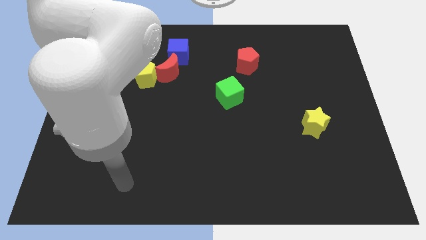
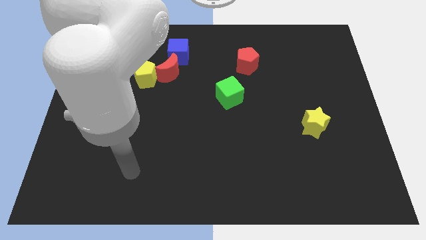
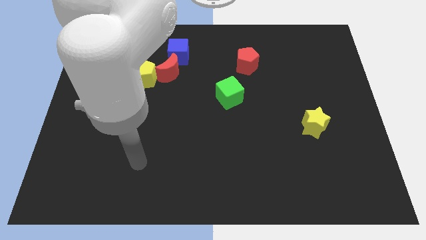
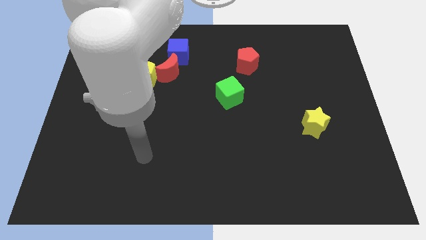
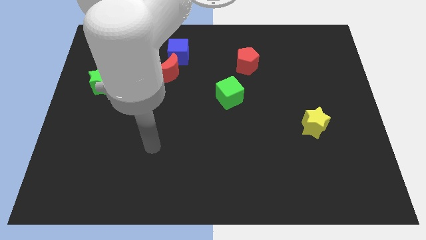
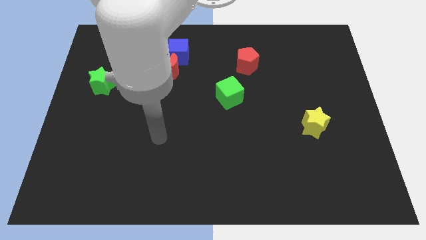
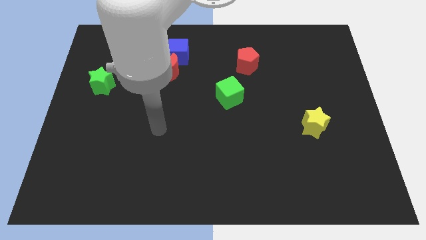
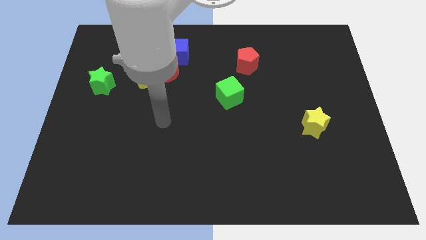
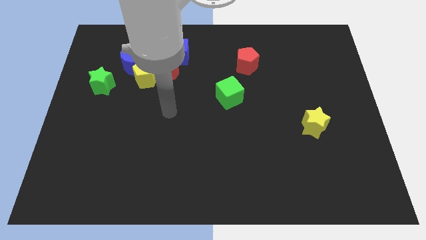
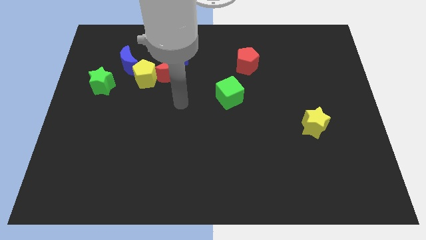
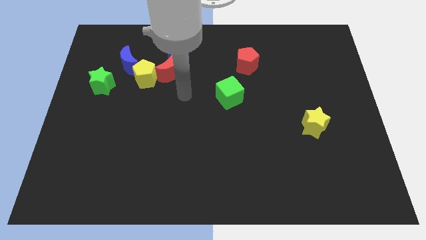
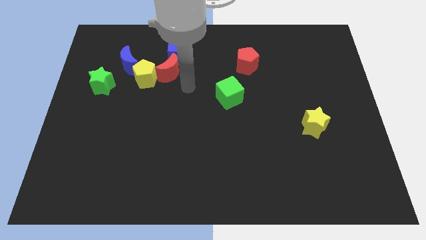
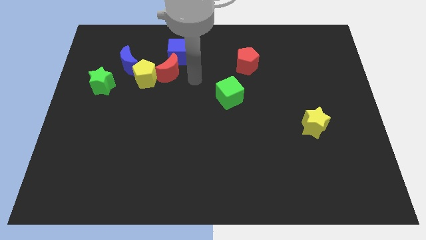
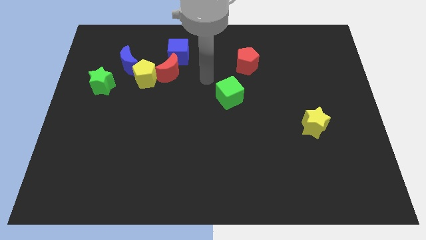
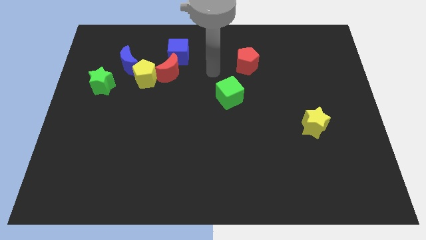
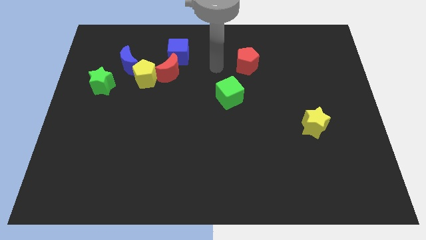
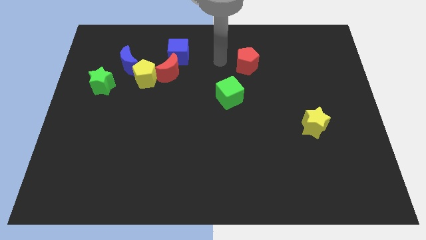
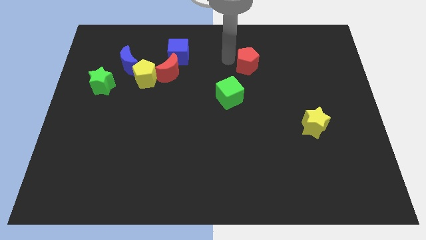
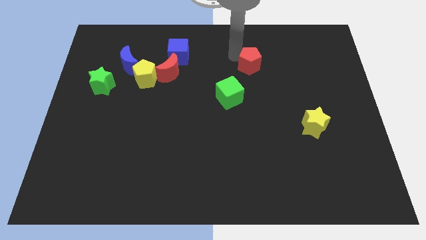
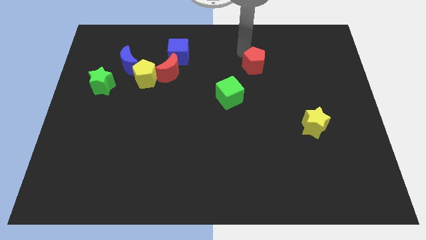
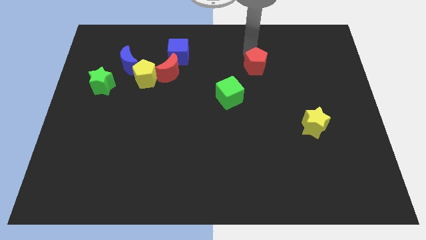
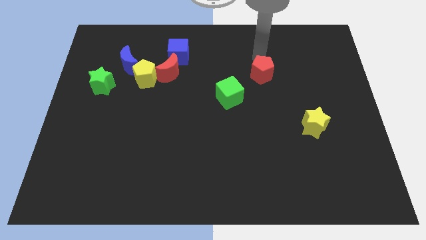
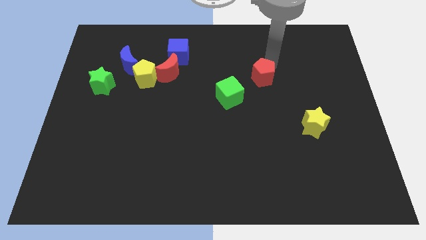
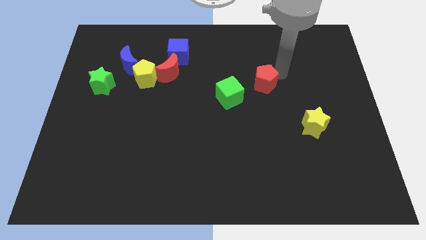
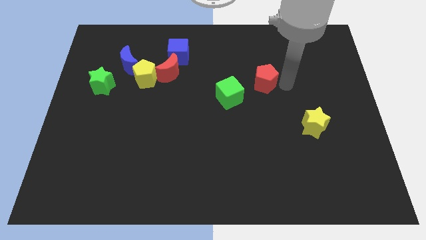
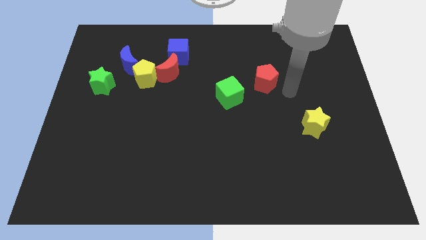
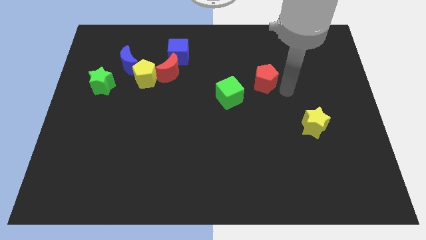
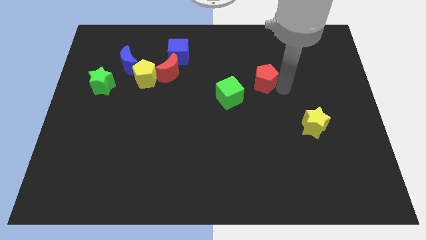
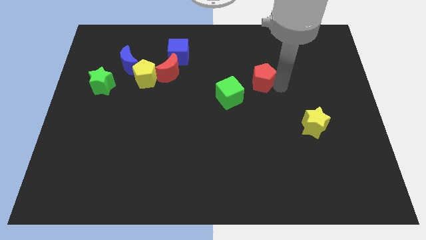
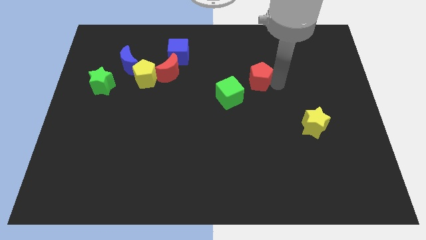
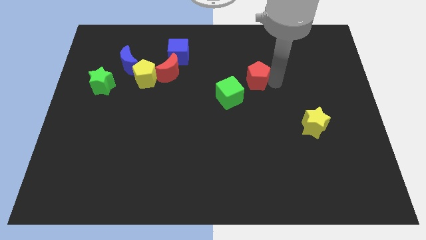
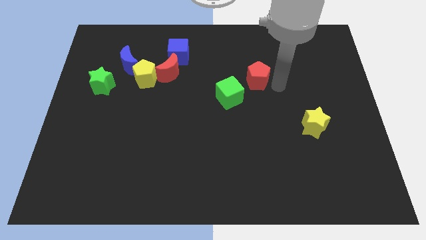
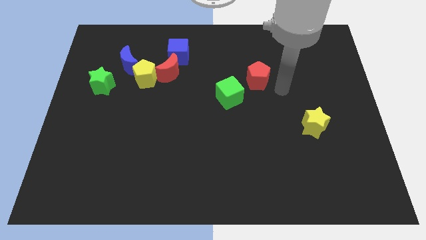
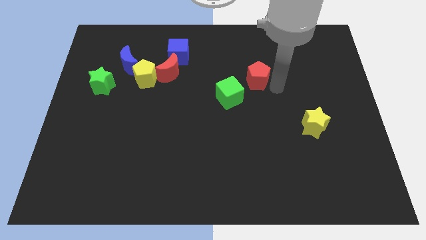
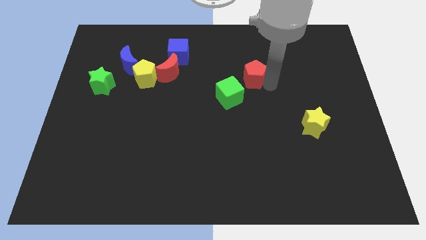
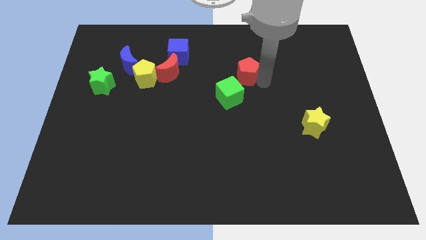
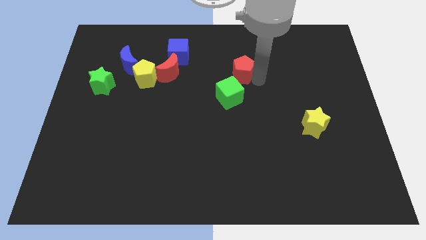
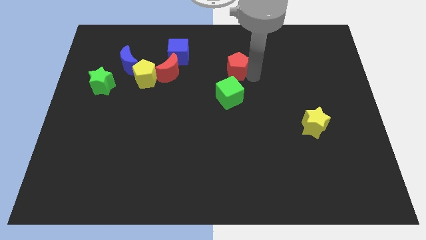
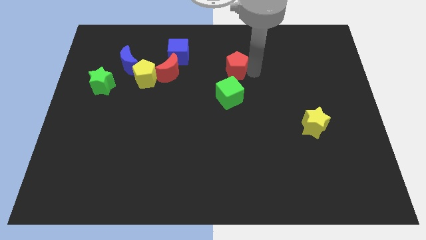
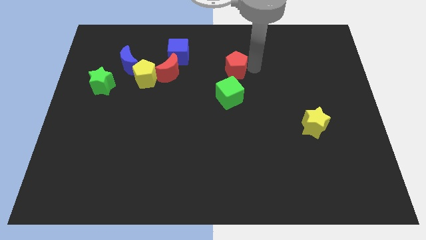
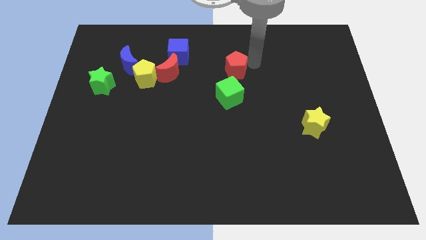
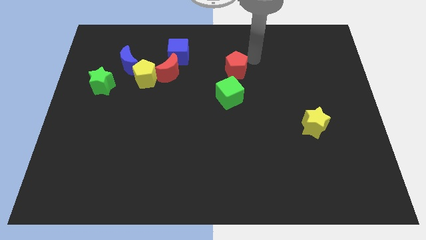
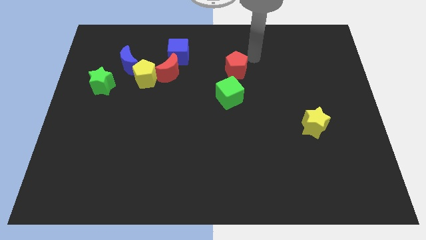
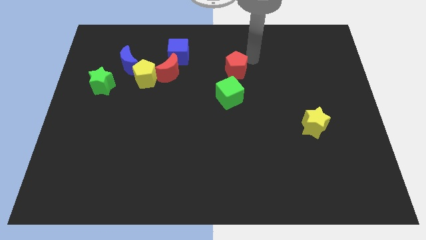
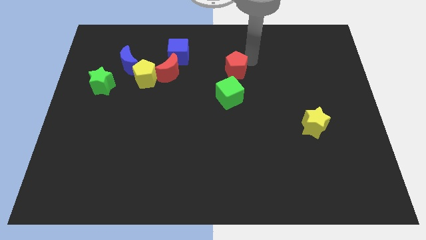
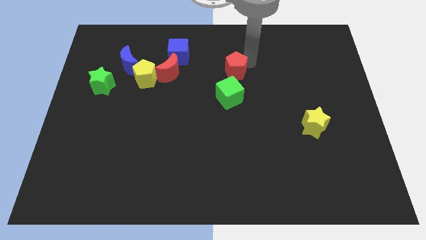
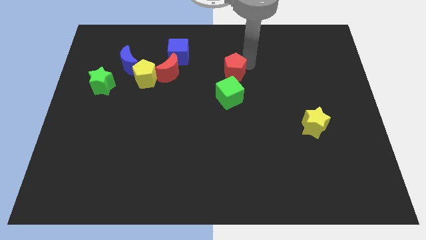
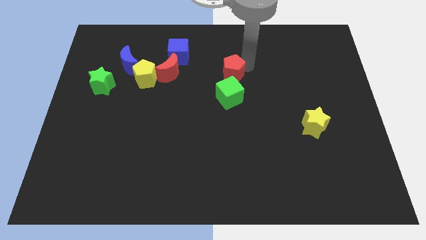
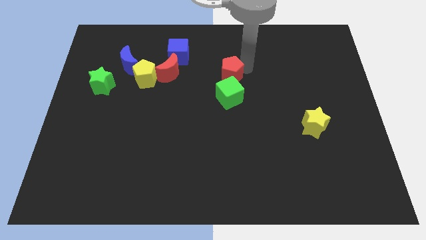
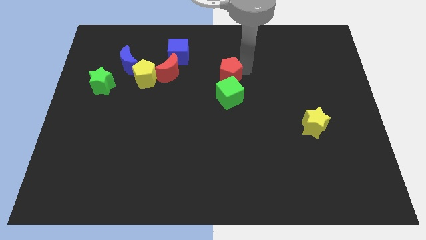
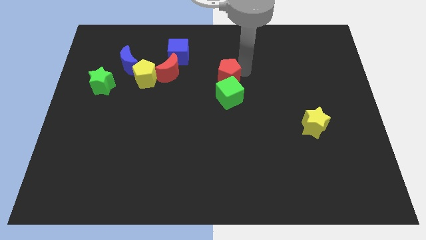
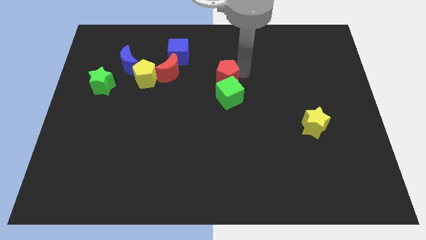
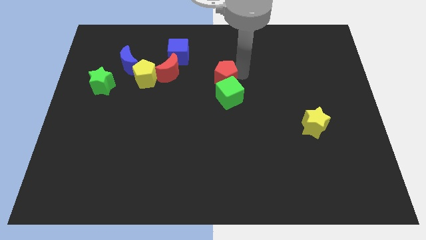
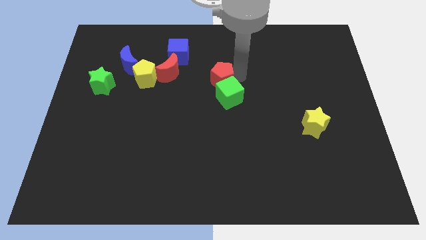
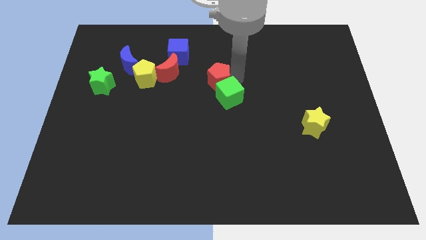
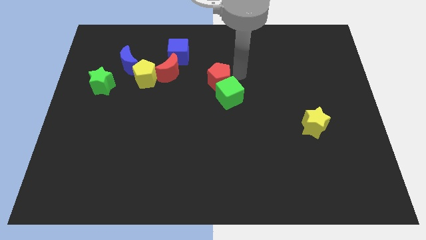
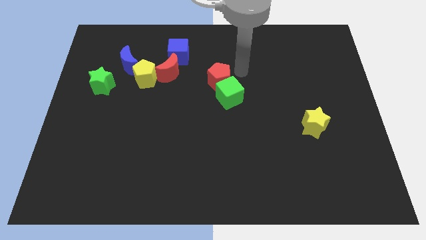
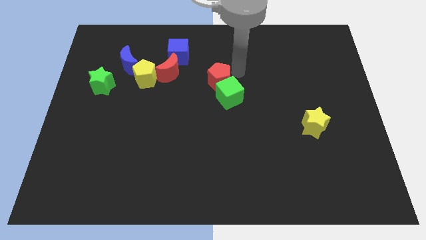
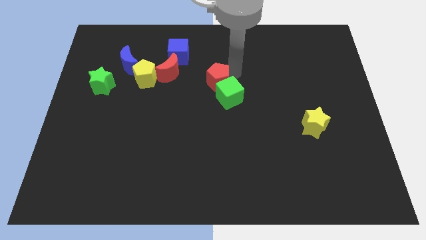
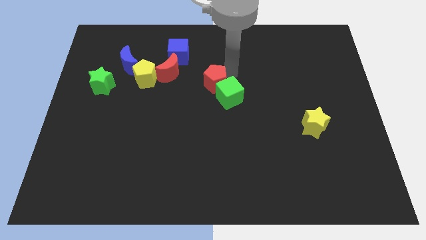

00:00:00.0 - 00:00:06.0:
push the red pentagon left of the green cube

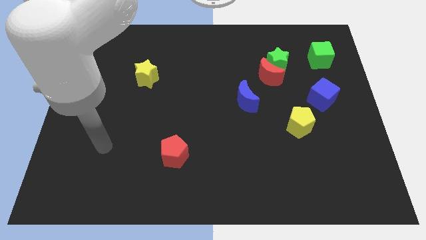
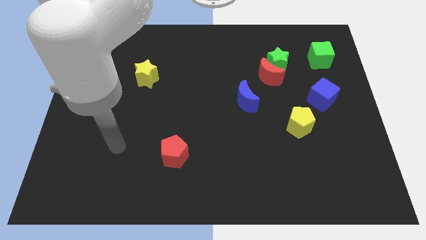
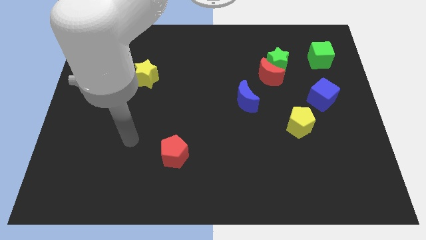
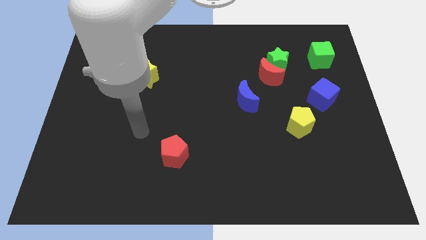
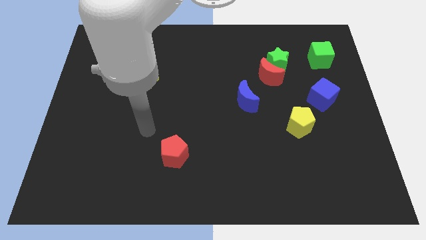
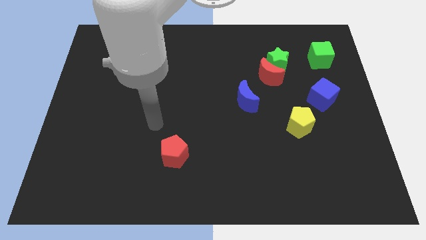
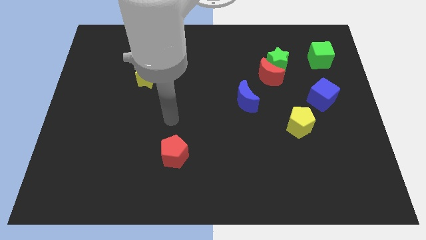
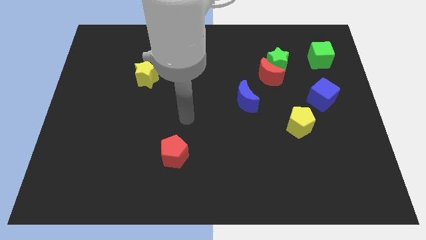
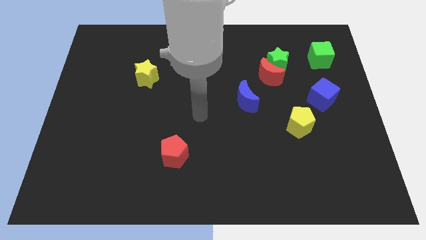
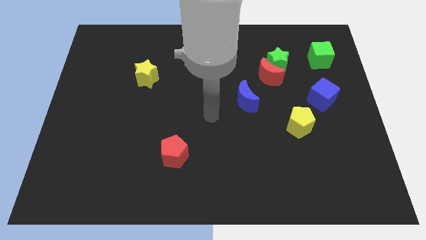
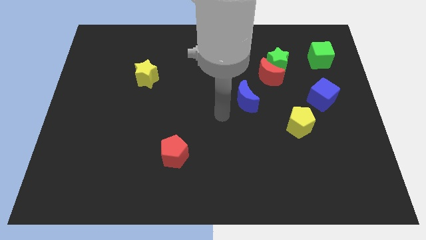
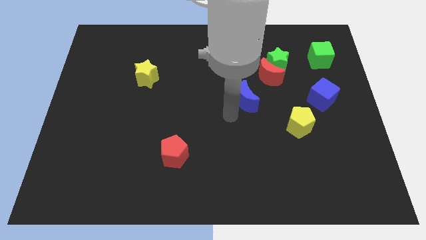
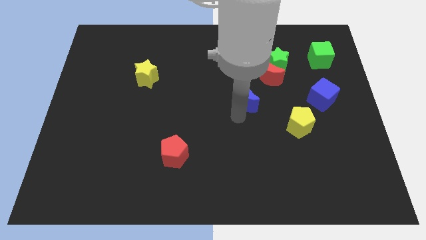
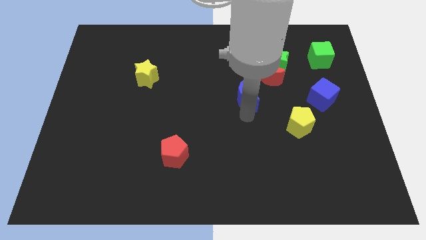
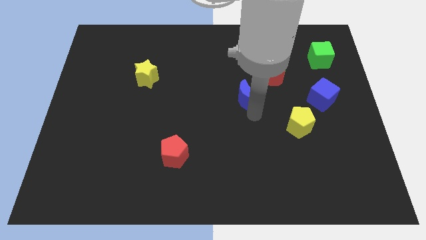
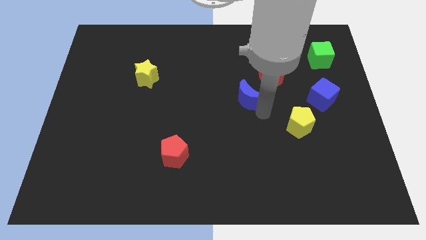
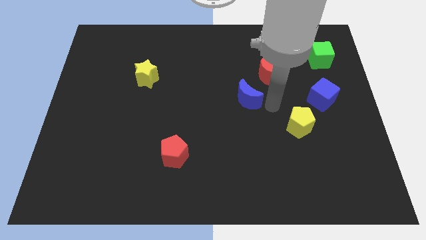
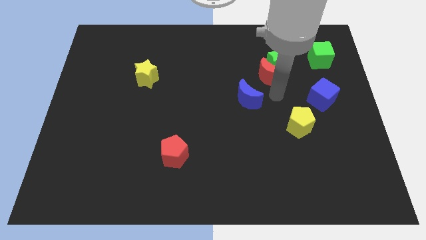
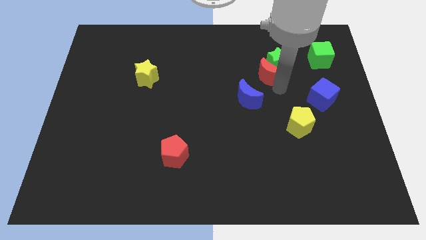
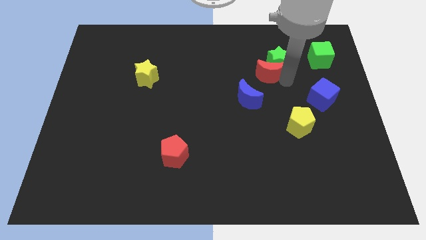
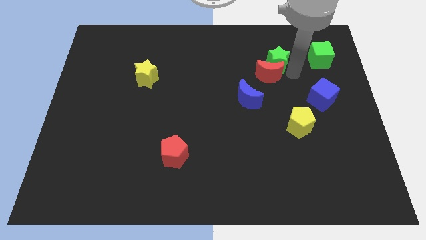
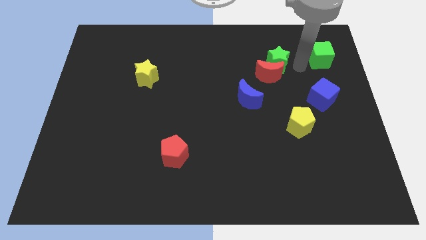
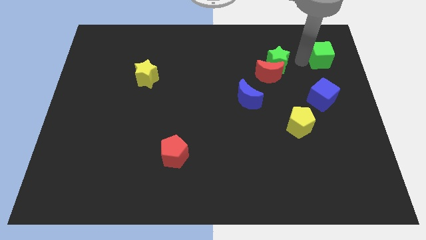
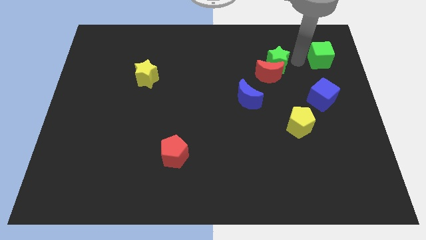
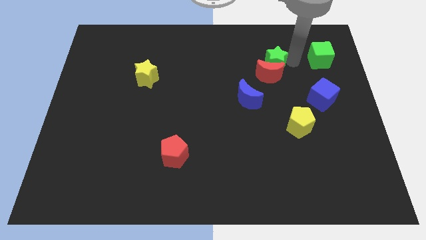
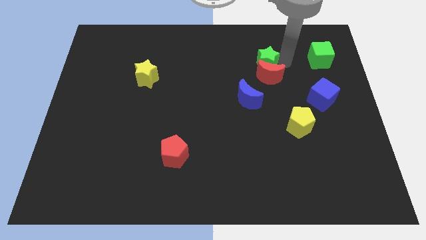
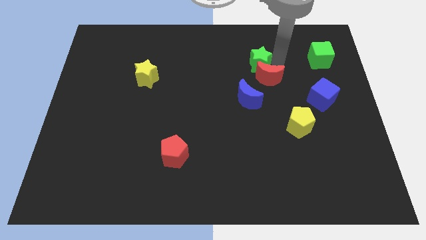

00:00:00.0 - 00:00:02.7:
slide the green star above the blue moon
